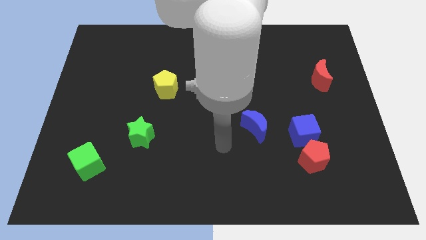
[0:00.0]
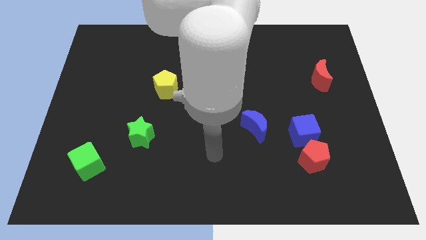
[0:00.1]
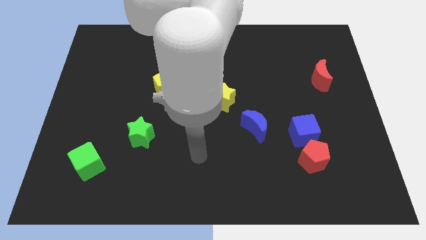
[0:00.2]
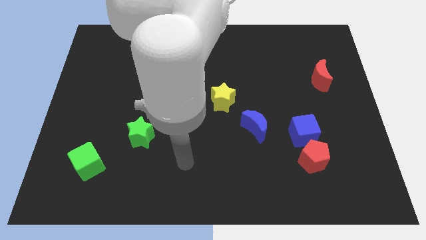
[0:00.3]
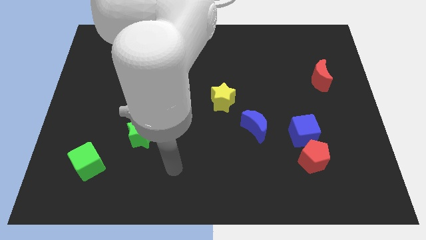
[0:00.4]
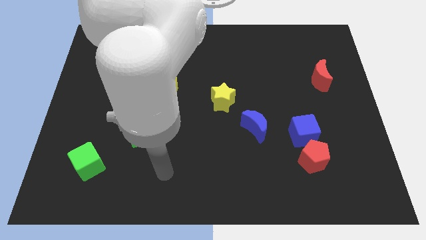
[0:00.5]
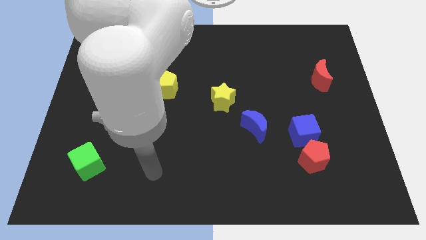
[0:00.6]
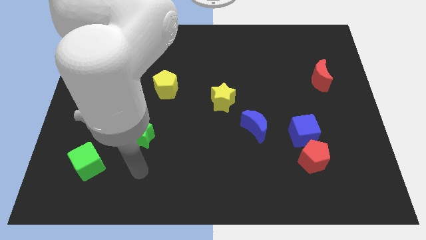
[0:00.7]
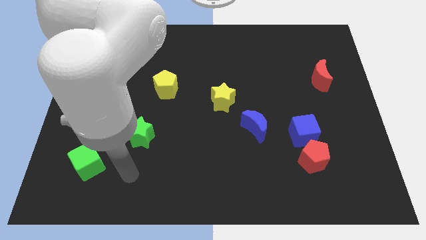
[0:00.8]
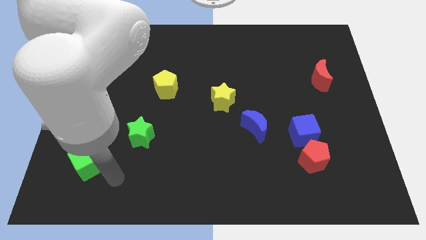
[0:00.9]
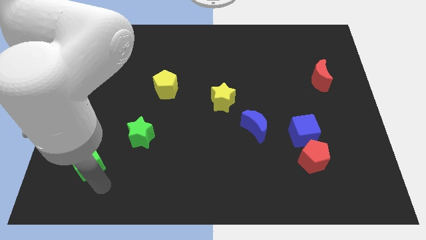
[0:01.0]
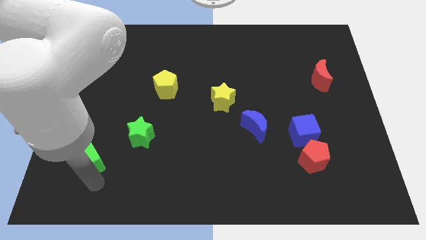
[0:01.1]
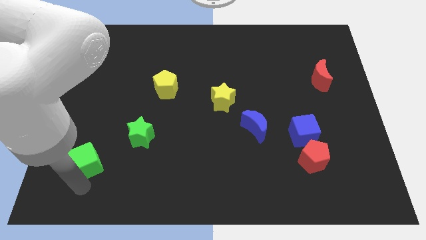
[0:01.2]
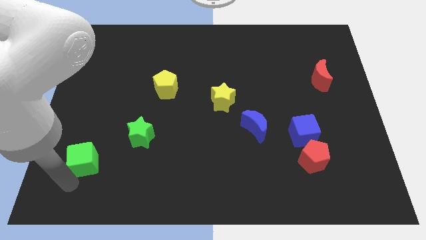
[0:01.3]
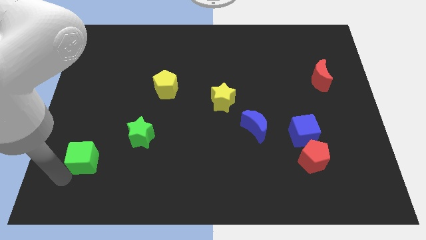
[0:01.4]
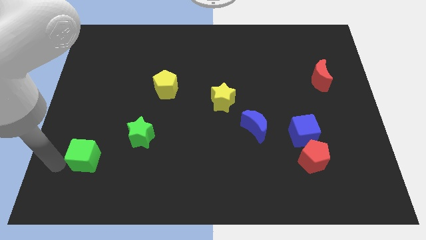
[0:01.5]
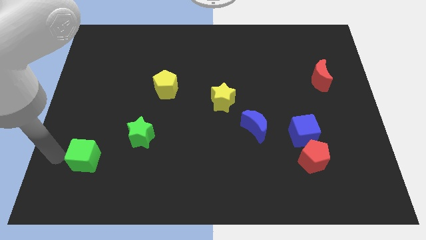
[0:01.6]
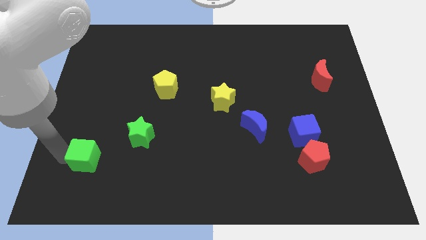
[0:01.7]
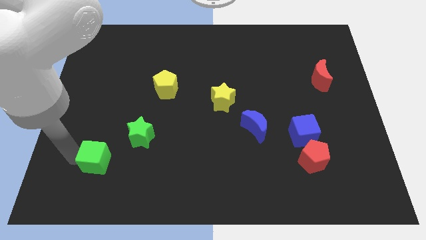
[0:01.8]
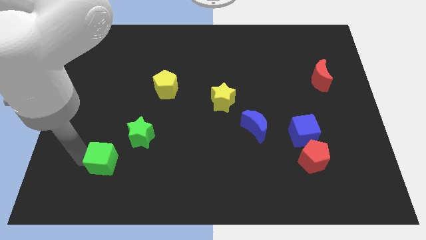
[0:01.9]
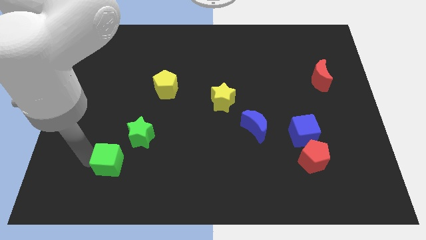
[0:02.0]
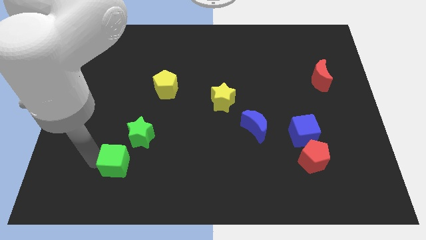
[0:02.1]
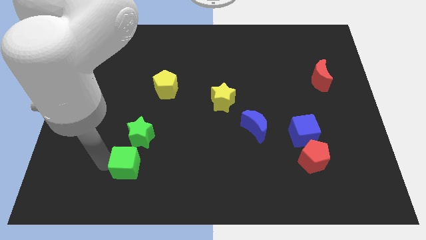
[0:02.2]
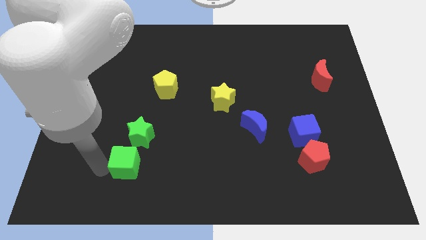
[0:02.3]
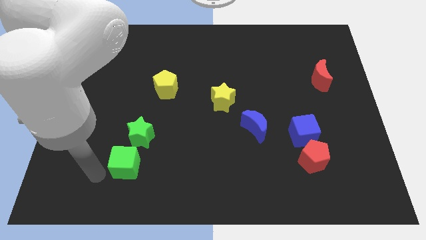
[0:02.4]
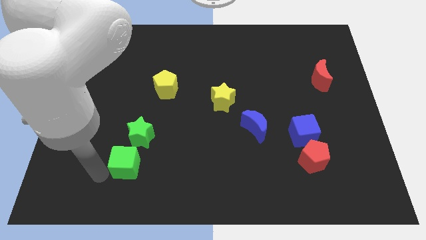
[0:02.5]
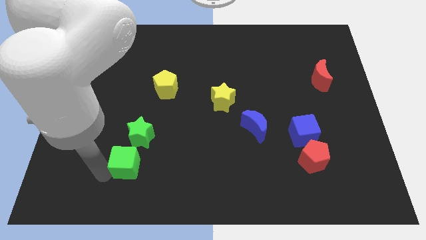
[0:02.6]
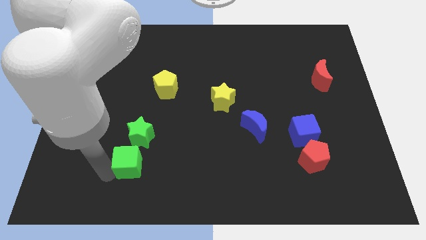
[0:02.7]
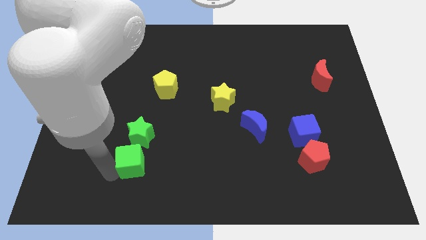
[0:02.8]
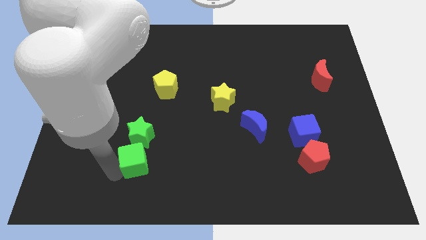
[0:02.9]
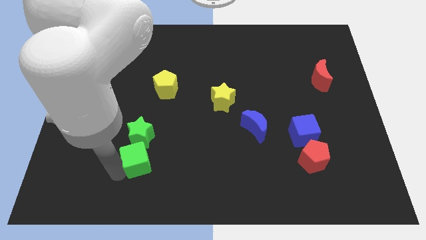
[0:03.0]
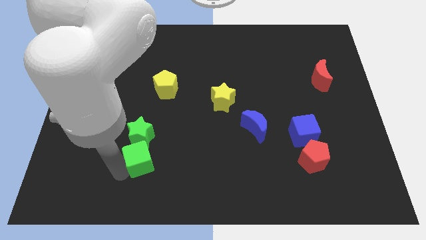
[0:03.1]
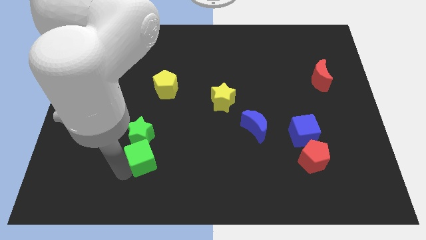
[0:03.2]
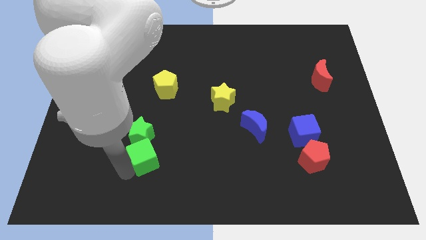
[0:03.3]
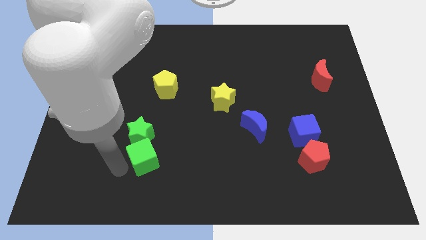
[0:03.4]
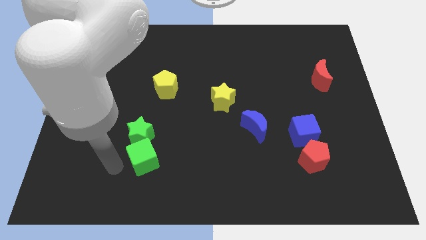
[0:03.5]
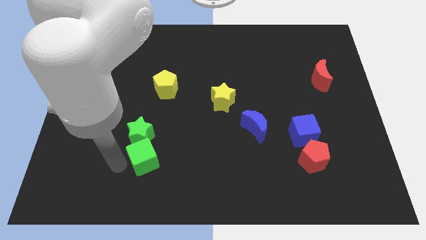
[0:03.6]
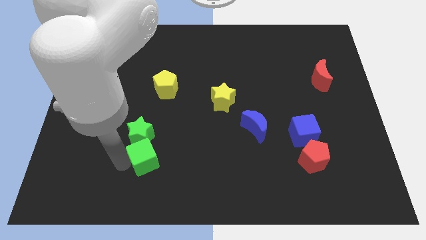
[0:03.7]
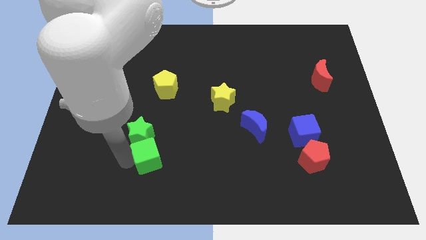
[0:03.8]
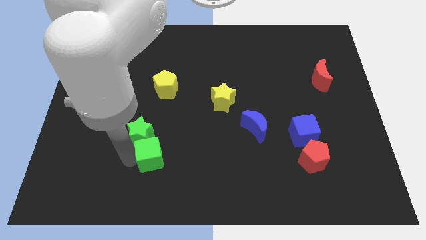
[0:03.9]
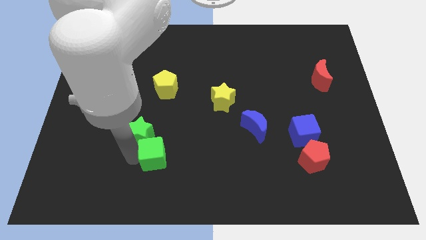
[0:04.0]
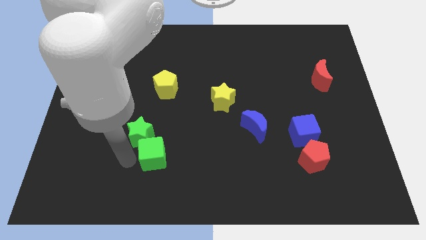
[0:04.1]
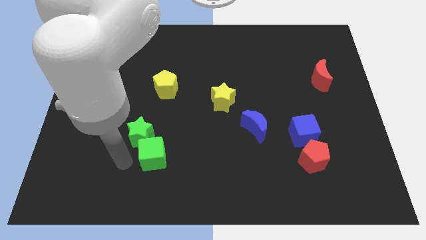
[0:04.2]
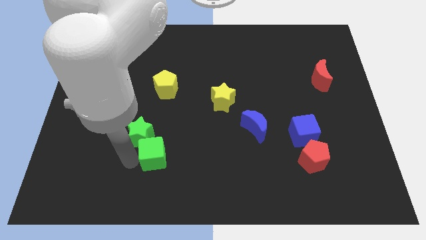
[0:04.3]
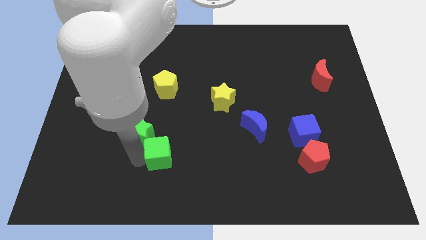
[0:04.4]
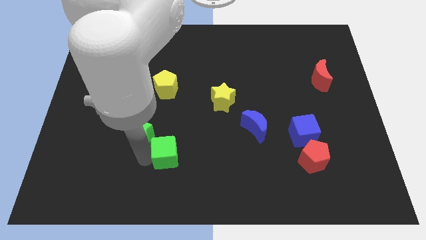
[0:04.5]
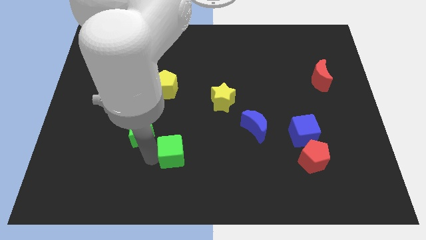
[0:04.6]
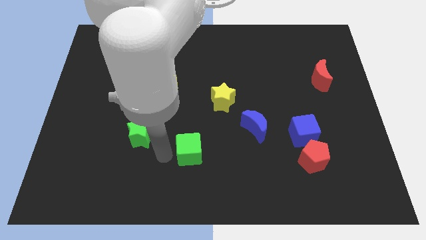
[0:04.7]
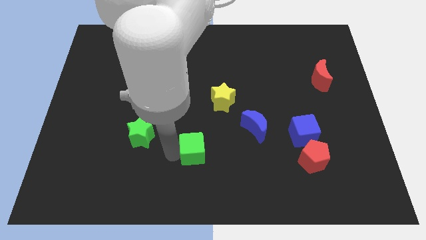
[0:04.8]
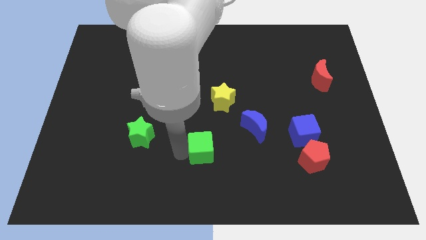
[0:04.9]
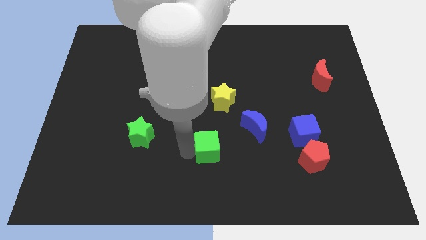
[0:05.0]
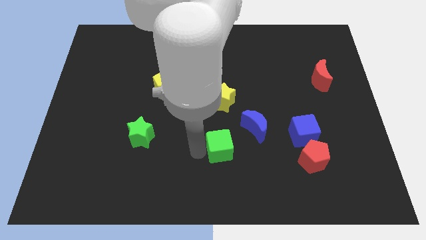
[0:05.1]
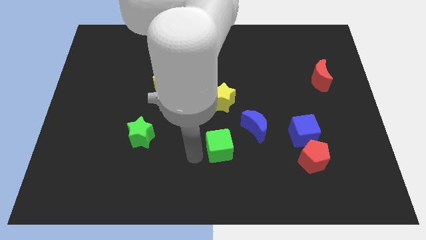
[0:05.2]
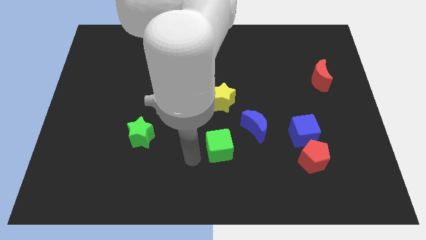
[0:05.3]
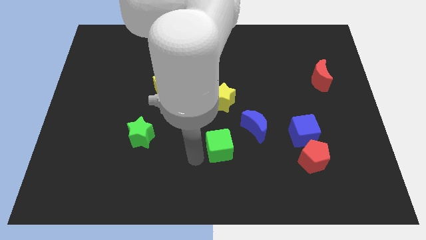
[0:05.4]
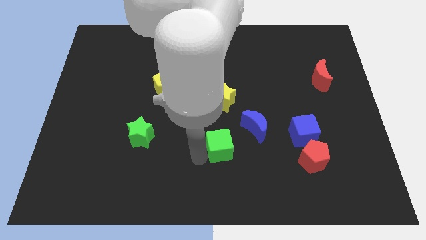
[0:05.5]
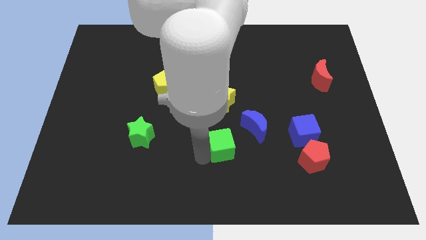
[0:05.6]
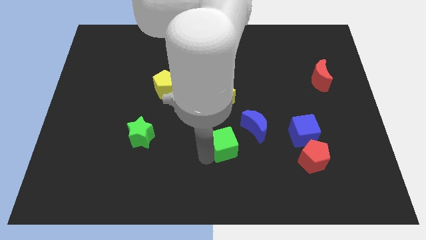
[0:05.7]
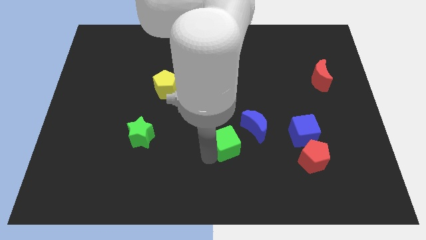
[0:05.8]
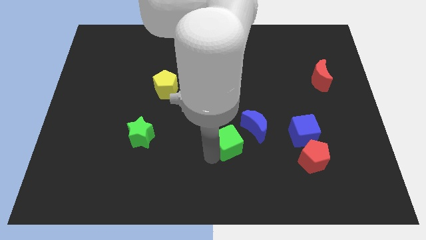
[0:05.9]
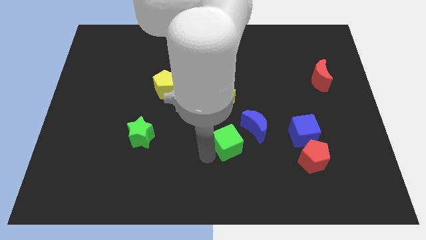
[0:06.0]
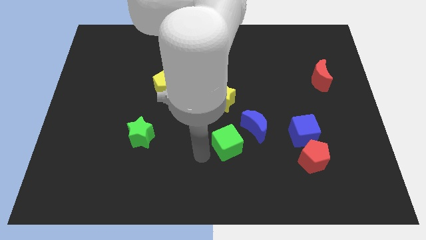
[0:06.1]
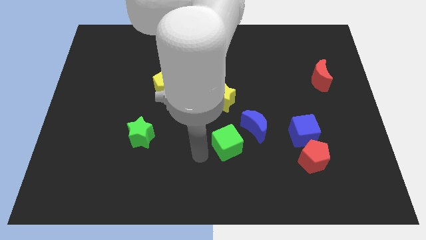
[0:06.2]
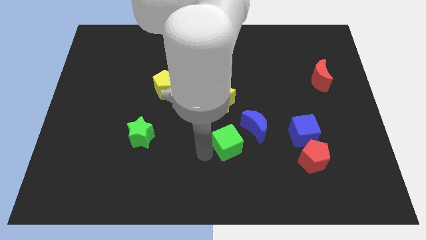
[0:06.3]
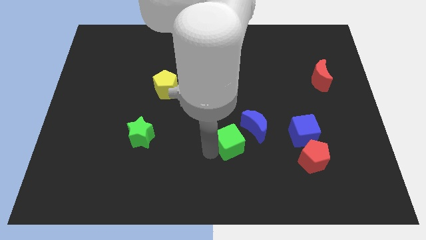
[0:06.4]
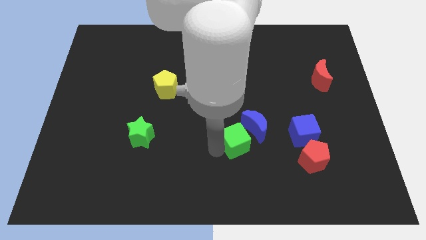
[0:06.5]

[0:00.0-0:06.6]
move the green cube to the blue moon
